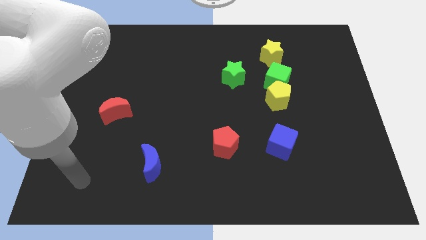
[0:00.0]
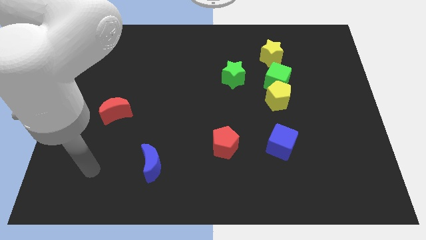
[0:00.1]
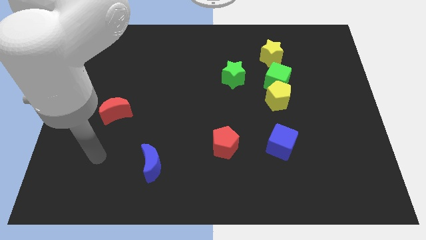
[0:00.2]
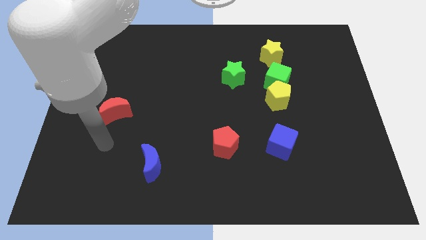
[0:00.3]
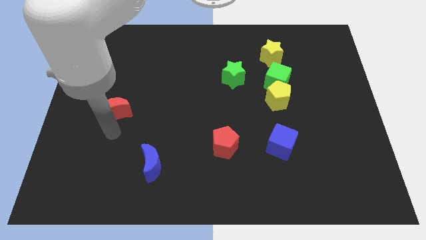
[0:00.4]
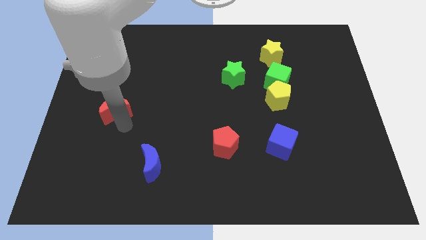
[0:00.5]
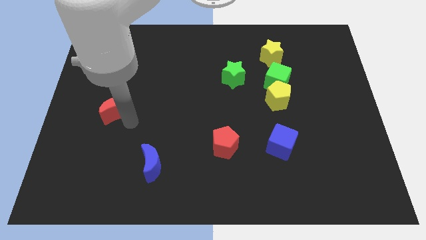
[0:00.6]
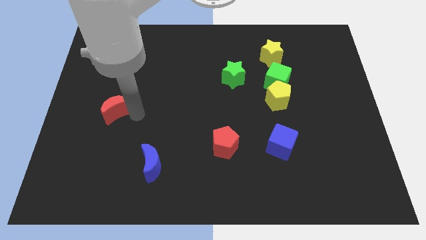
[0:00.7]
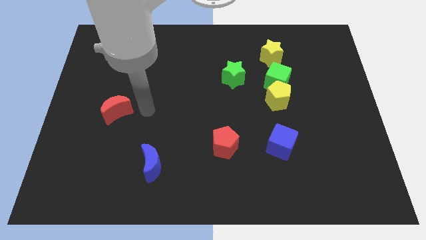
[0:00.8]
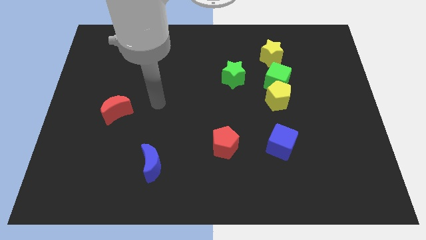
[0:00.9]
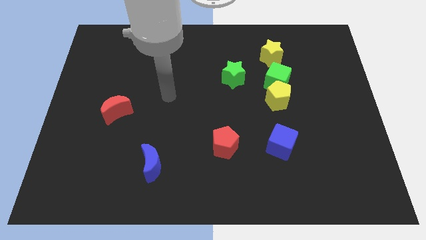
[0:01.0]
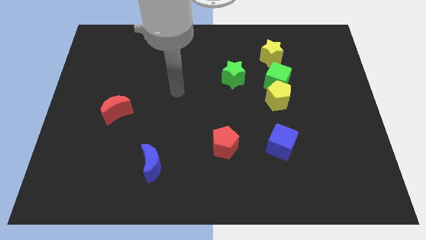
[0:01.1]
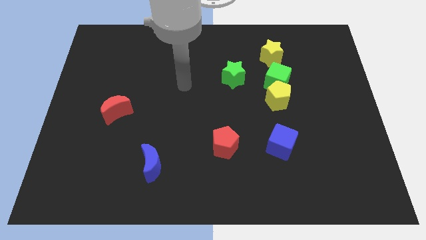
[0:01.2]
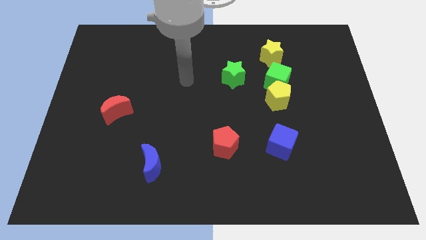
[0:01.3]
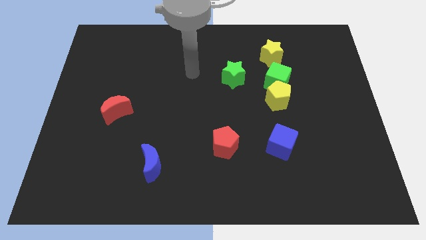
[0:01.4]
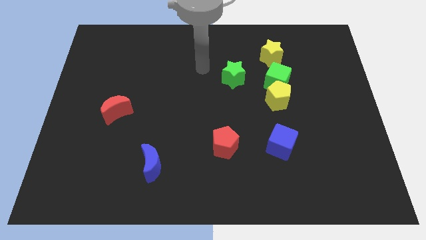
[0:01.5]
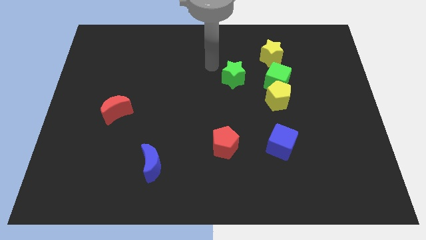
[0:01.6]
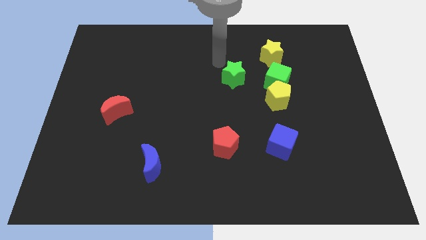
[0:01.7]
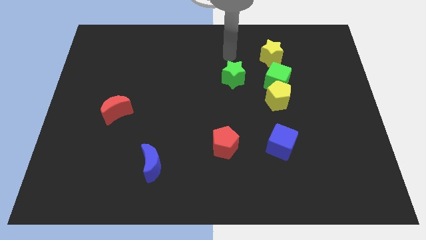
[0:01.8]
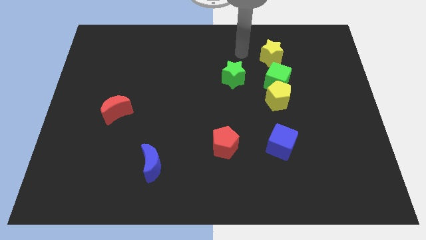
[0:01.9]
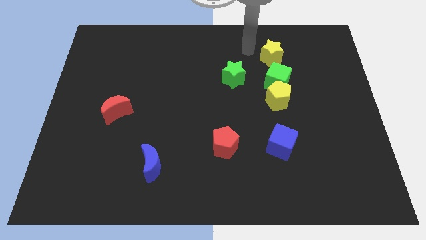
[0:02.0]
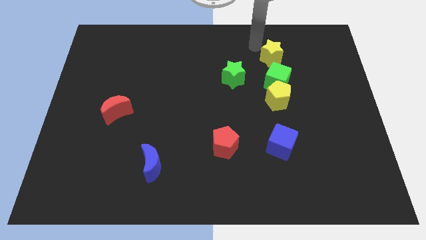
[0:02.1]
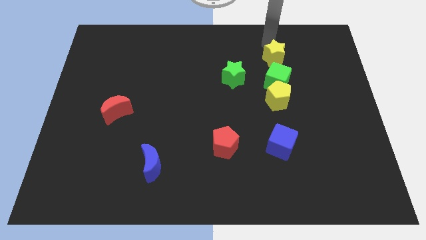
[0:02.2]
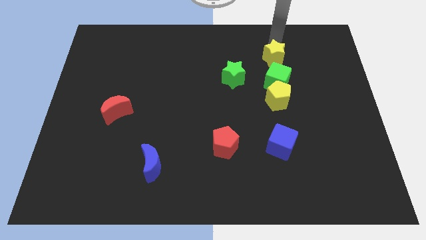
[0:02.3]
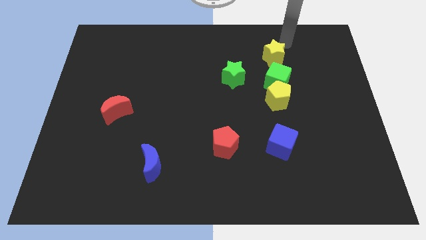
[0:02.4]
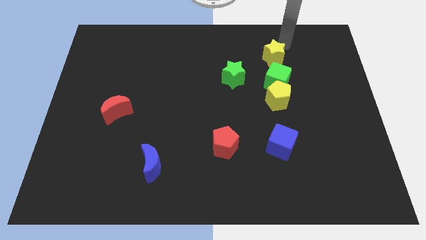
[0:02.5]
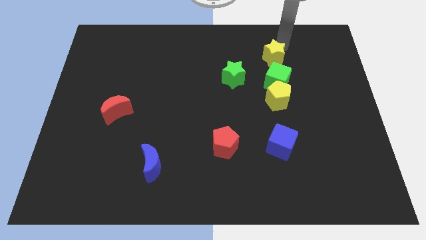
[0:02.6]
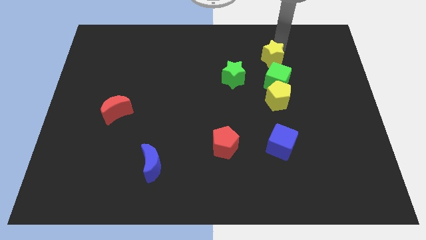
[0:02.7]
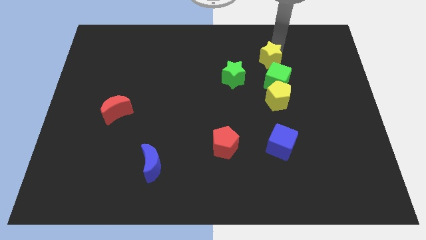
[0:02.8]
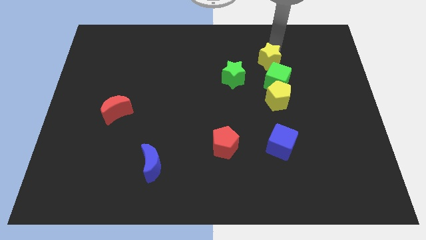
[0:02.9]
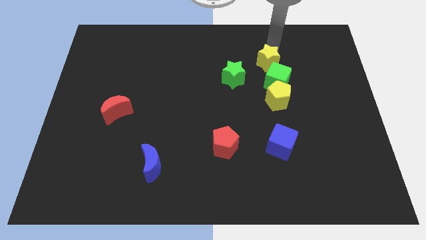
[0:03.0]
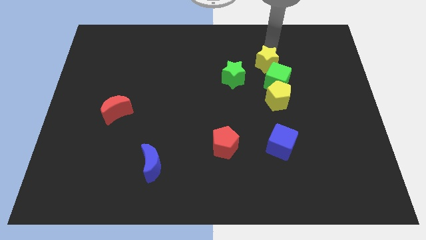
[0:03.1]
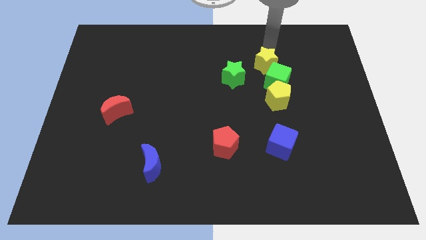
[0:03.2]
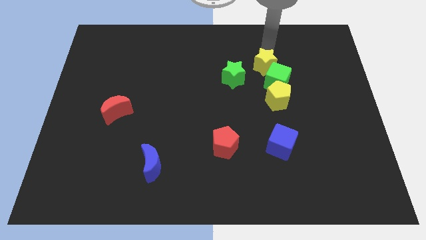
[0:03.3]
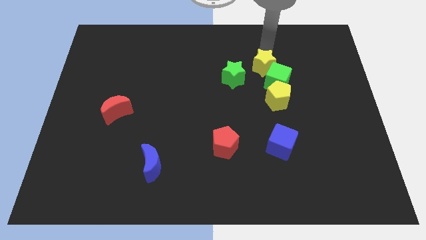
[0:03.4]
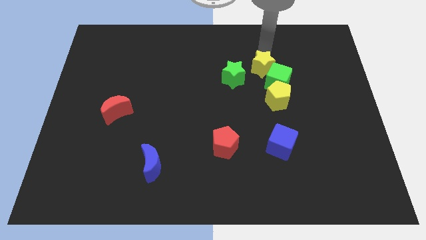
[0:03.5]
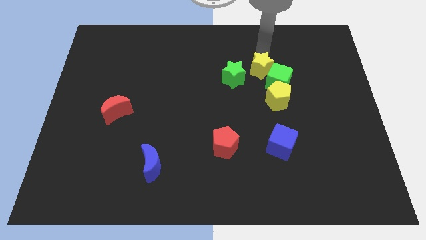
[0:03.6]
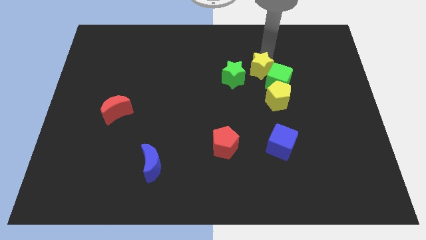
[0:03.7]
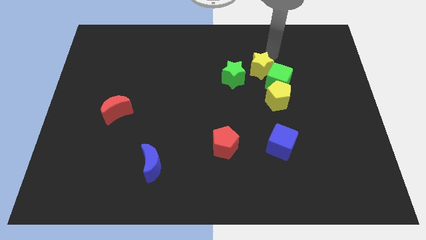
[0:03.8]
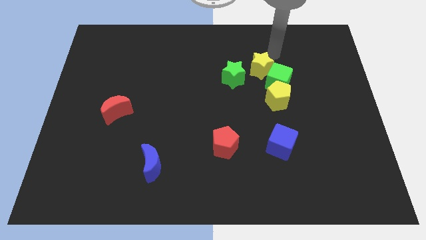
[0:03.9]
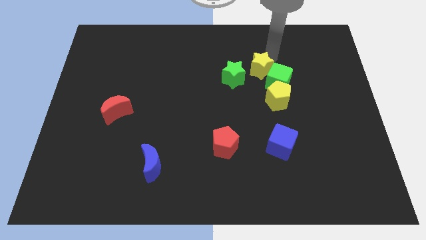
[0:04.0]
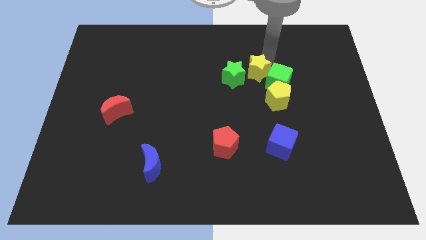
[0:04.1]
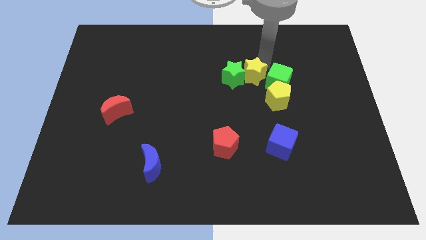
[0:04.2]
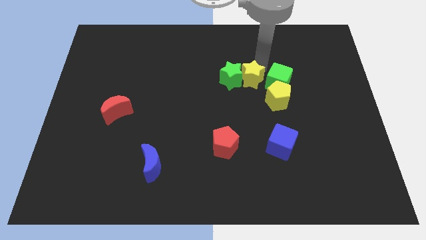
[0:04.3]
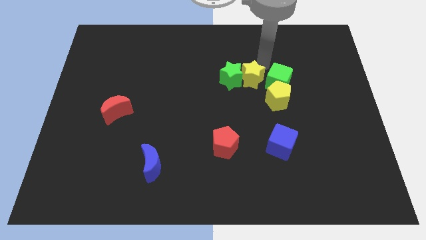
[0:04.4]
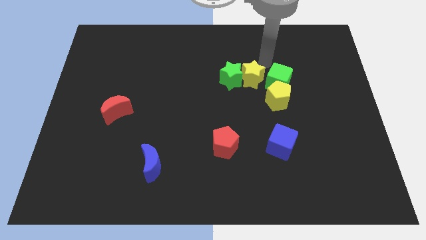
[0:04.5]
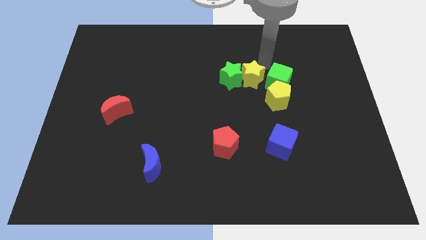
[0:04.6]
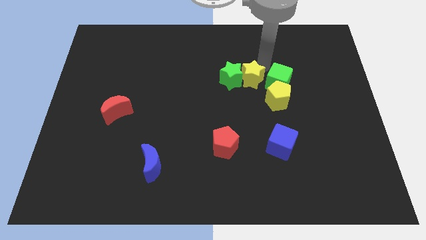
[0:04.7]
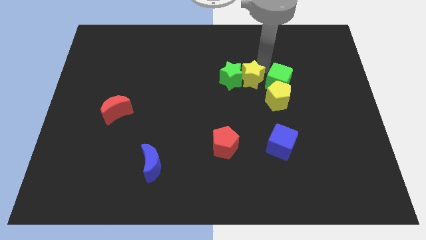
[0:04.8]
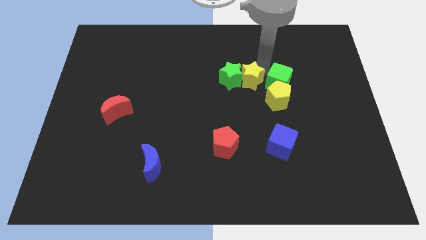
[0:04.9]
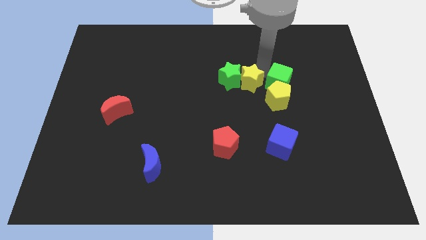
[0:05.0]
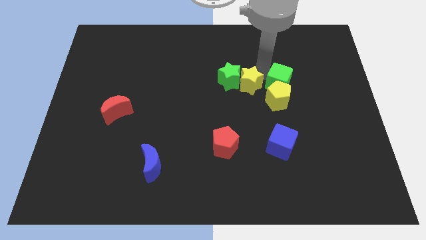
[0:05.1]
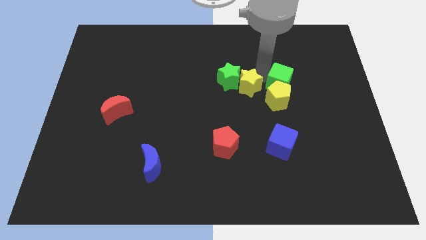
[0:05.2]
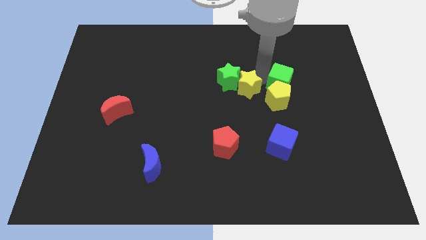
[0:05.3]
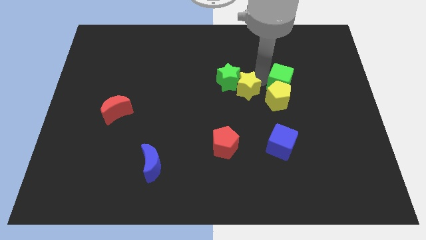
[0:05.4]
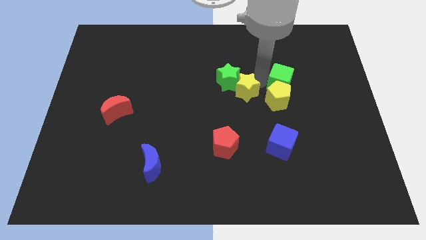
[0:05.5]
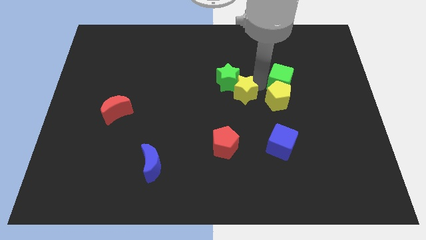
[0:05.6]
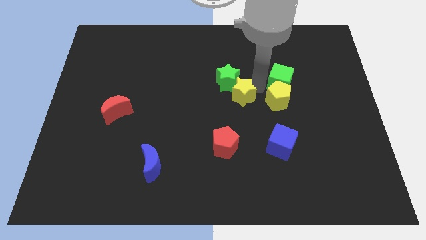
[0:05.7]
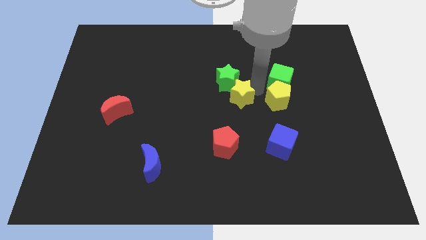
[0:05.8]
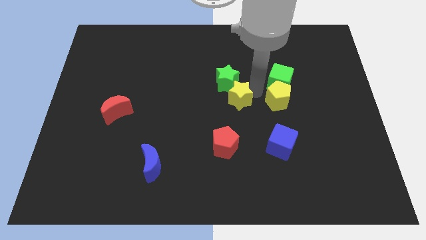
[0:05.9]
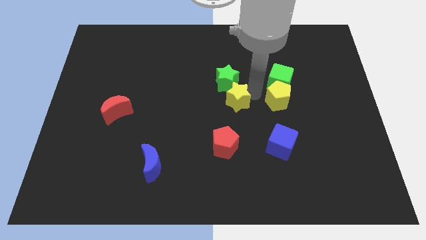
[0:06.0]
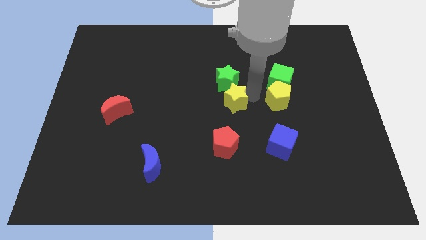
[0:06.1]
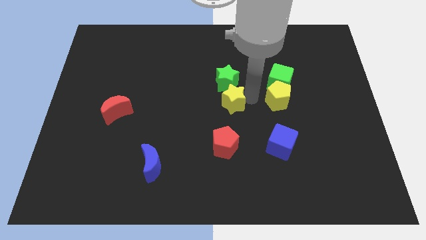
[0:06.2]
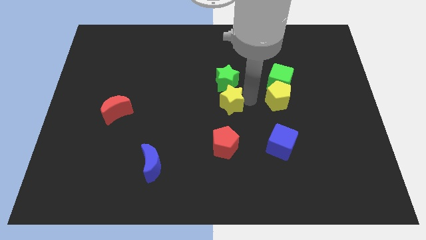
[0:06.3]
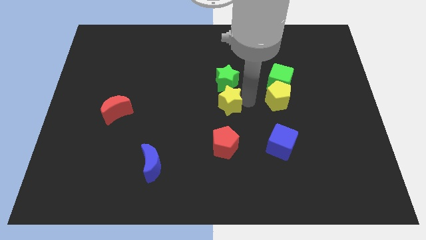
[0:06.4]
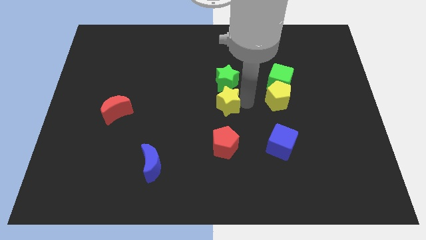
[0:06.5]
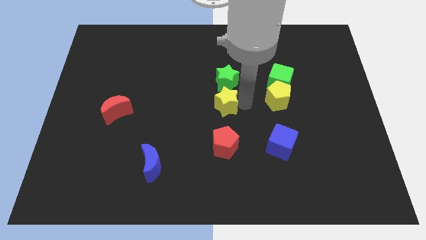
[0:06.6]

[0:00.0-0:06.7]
slide the yellow star downwards and to the left

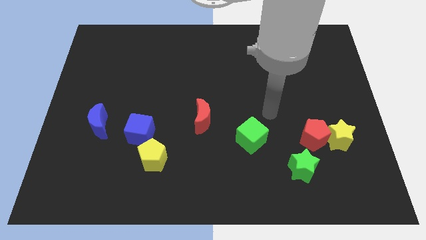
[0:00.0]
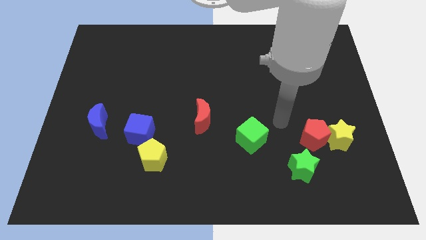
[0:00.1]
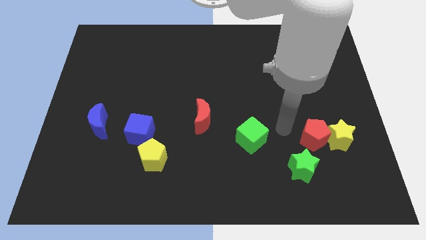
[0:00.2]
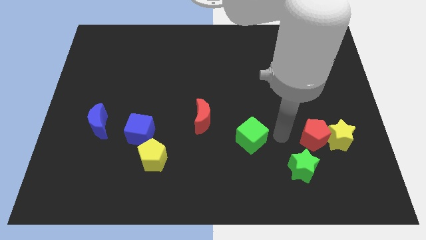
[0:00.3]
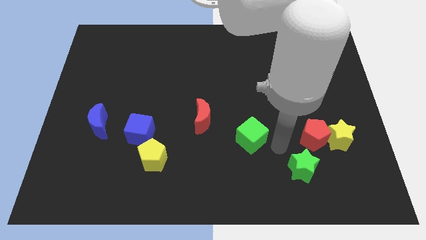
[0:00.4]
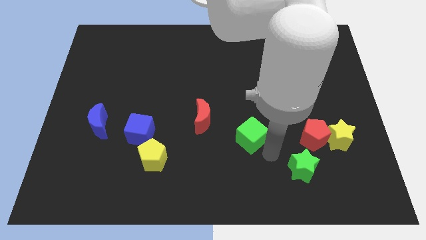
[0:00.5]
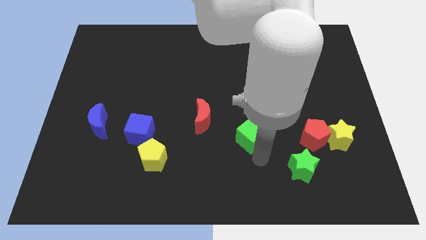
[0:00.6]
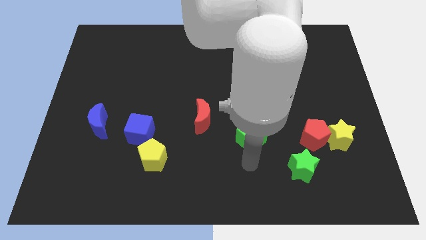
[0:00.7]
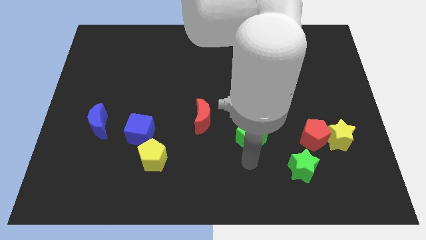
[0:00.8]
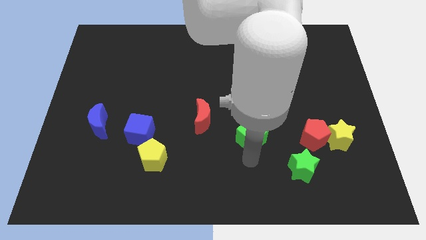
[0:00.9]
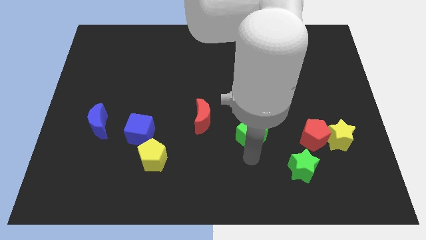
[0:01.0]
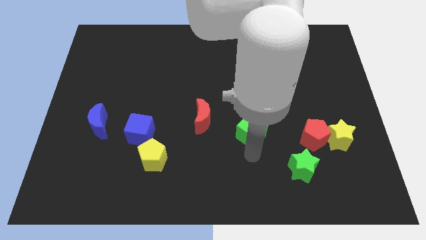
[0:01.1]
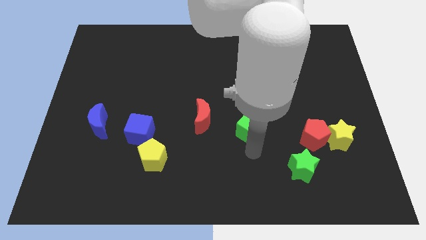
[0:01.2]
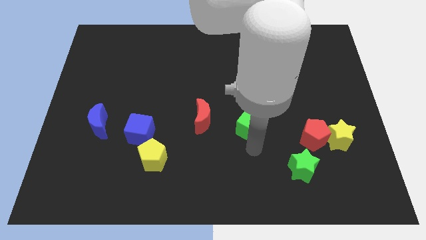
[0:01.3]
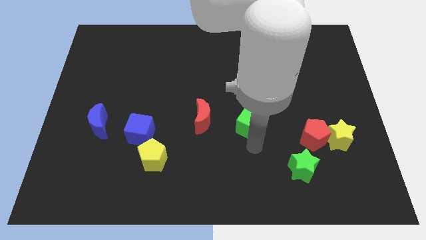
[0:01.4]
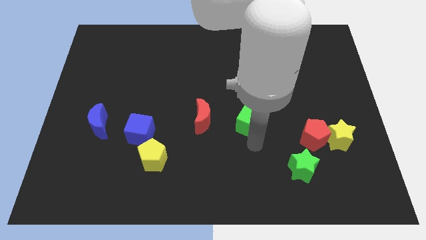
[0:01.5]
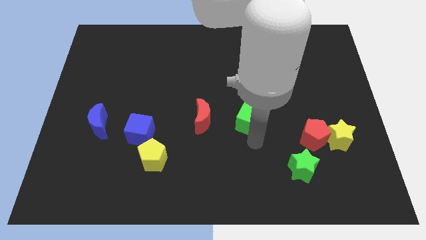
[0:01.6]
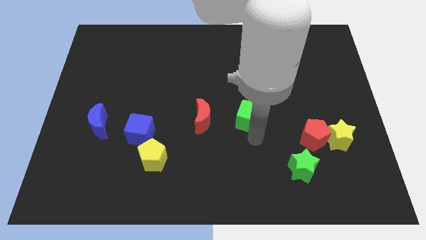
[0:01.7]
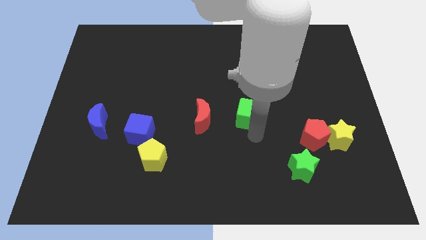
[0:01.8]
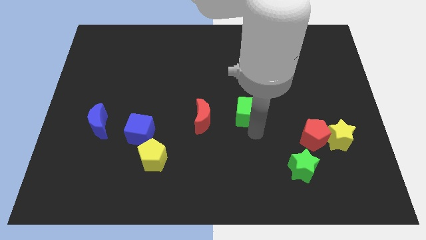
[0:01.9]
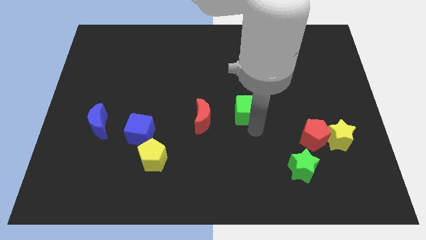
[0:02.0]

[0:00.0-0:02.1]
push the green cube up somewhat
